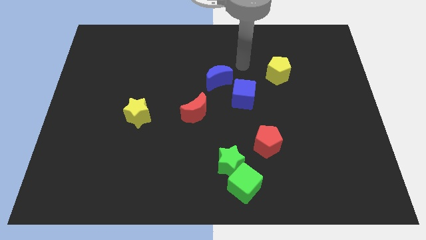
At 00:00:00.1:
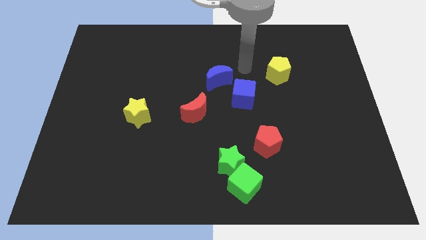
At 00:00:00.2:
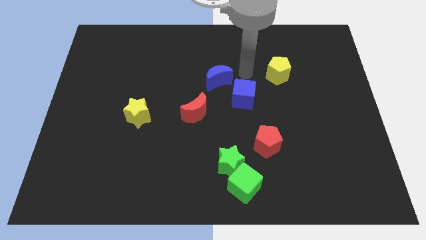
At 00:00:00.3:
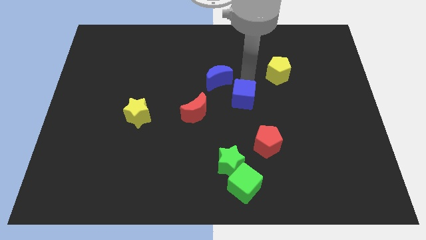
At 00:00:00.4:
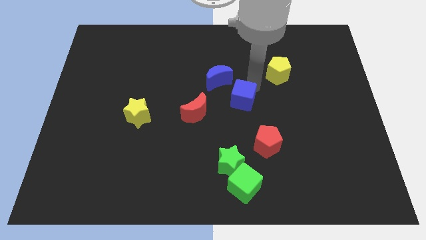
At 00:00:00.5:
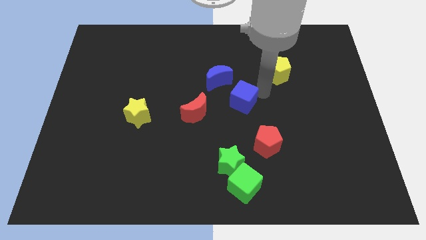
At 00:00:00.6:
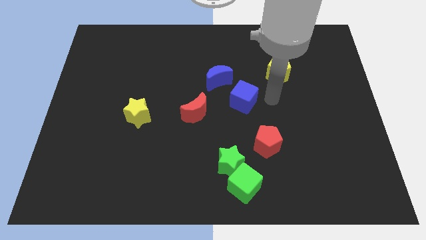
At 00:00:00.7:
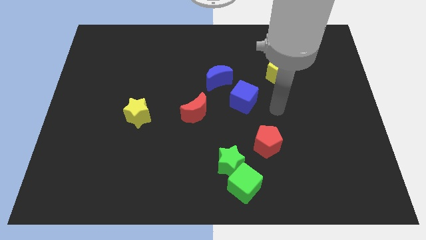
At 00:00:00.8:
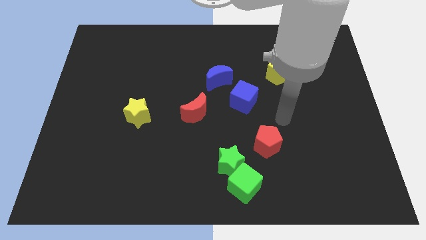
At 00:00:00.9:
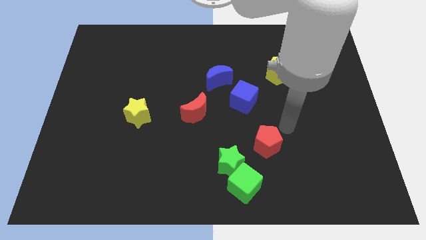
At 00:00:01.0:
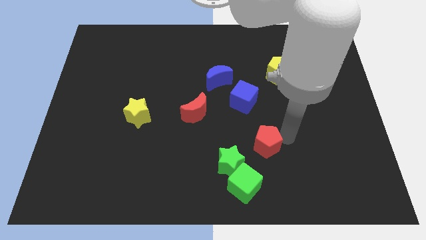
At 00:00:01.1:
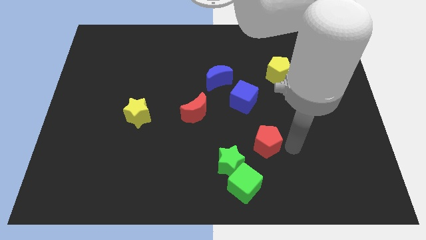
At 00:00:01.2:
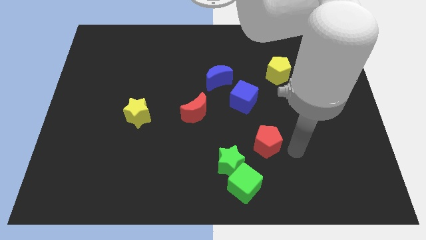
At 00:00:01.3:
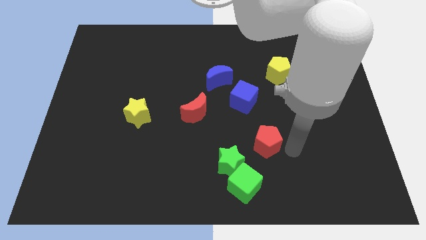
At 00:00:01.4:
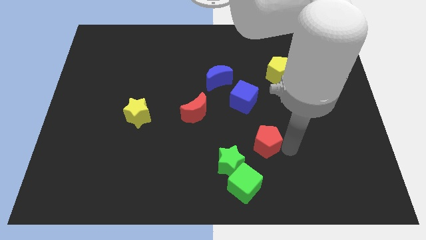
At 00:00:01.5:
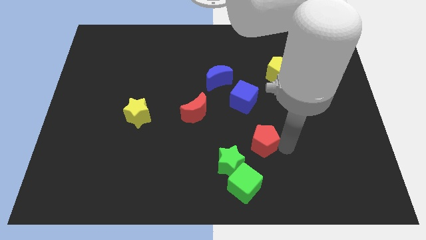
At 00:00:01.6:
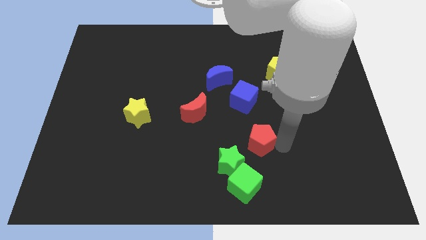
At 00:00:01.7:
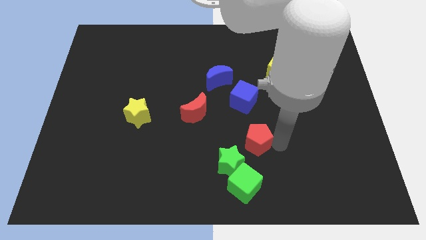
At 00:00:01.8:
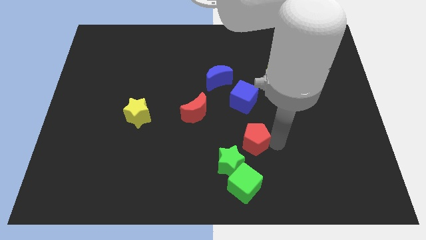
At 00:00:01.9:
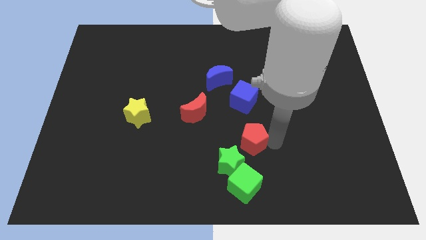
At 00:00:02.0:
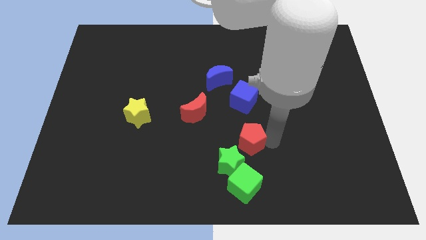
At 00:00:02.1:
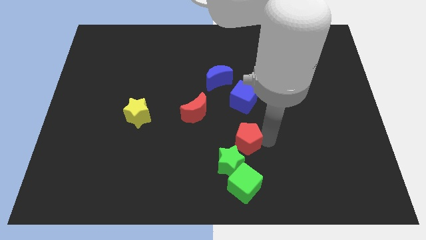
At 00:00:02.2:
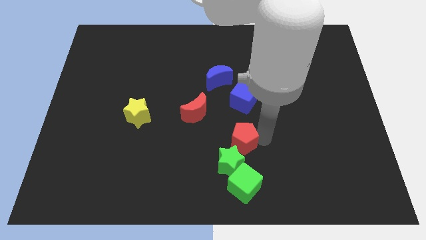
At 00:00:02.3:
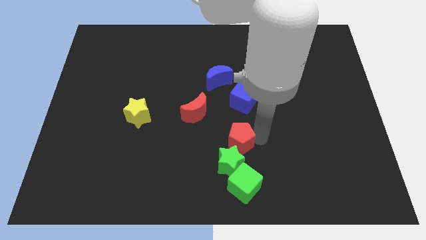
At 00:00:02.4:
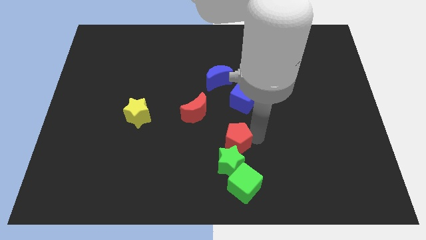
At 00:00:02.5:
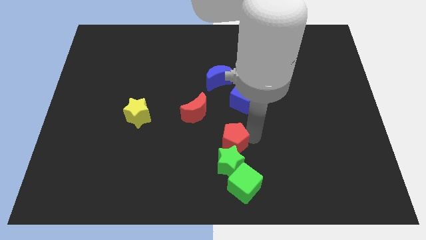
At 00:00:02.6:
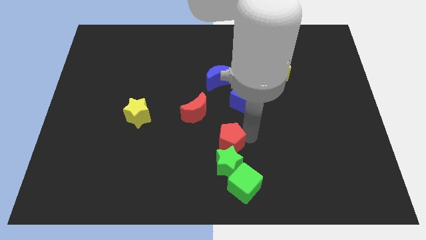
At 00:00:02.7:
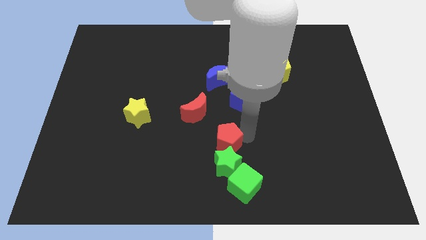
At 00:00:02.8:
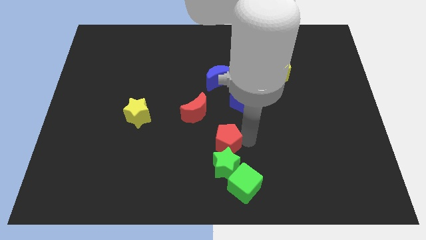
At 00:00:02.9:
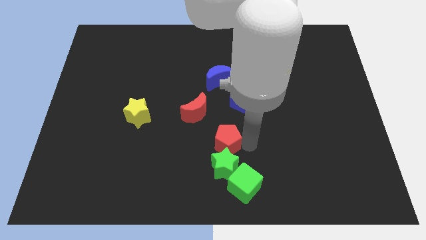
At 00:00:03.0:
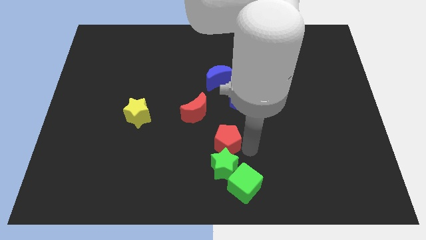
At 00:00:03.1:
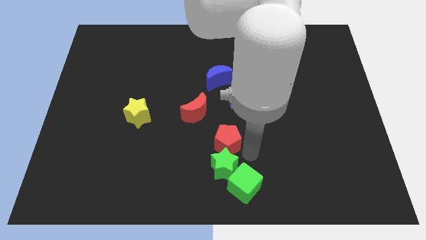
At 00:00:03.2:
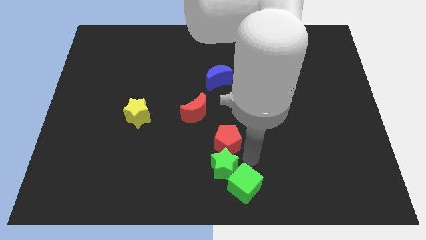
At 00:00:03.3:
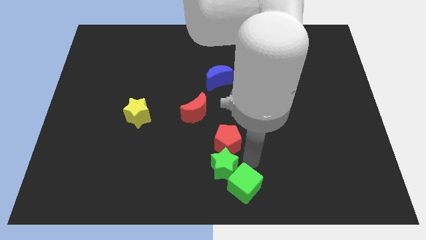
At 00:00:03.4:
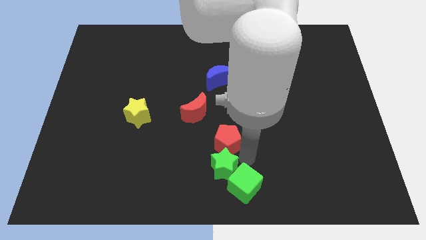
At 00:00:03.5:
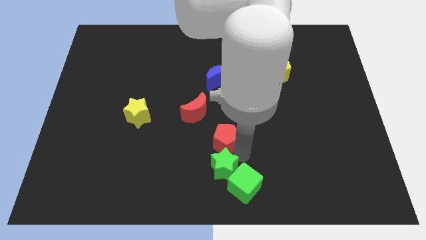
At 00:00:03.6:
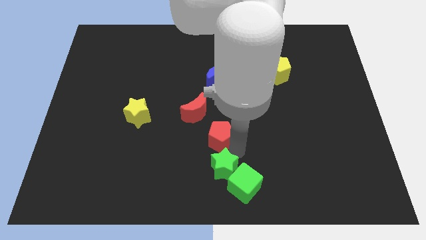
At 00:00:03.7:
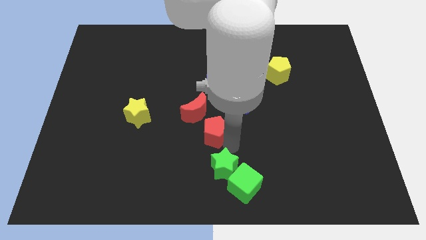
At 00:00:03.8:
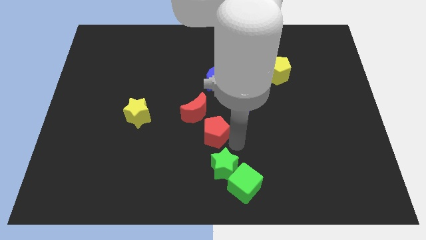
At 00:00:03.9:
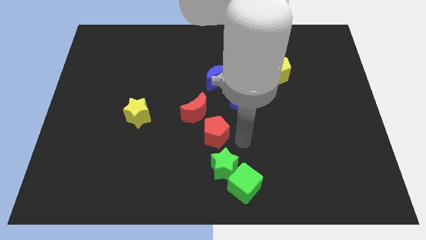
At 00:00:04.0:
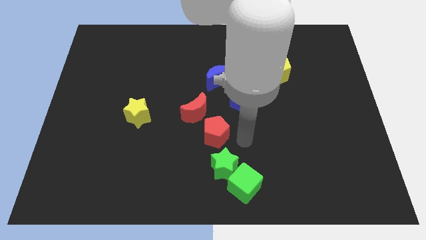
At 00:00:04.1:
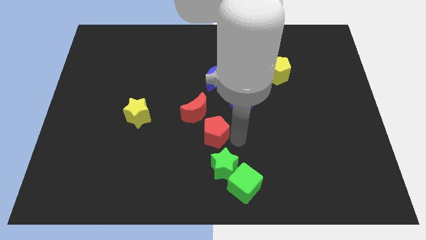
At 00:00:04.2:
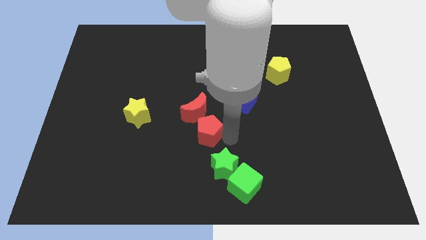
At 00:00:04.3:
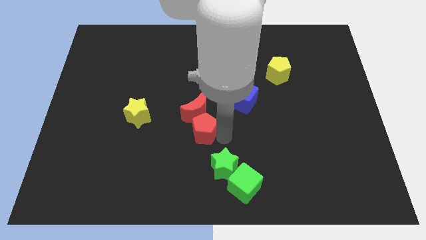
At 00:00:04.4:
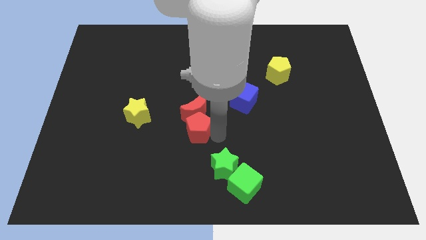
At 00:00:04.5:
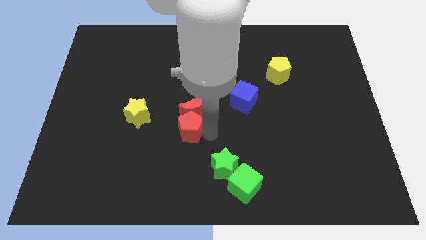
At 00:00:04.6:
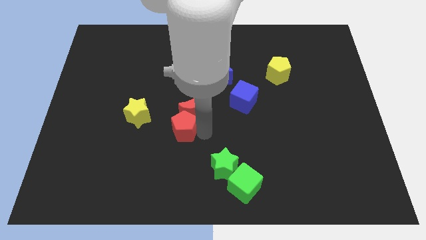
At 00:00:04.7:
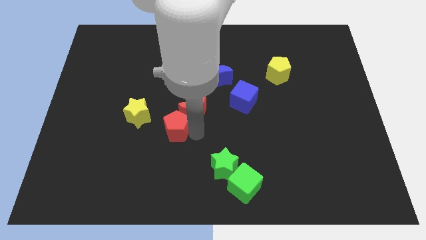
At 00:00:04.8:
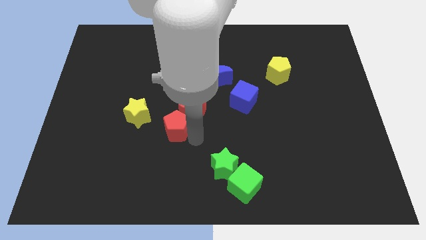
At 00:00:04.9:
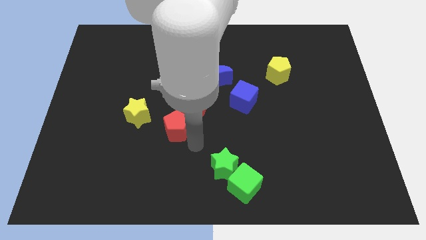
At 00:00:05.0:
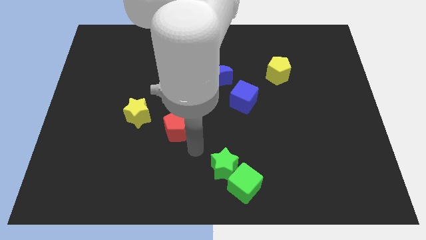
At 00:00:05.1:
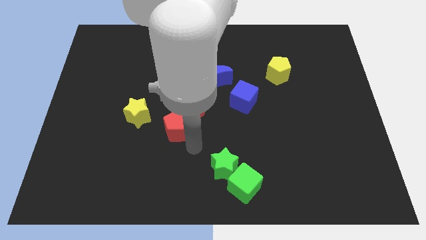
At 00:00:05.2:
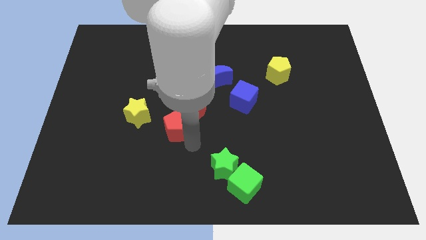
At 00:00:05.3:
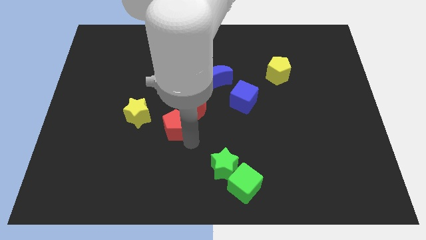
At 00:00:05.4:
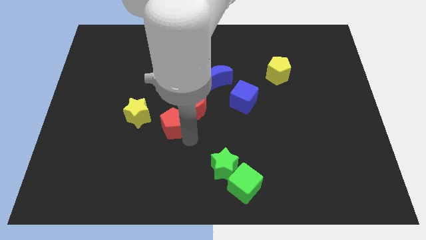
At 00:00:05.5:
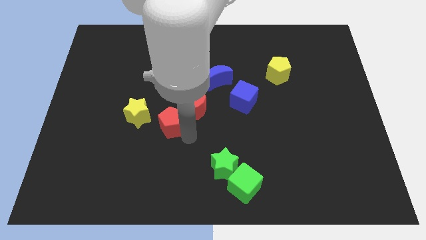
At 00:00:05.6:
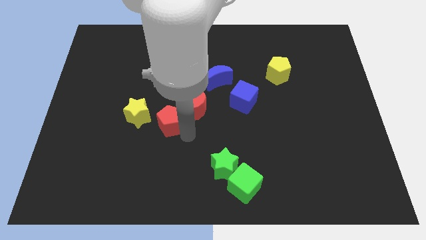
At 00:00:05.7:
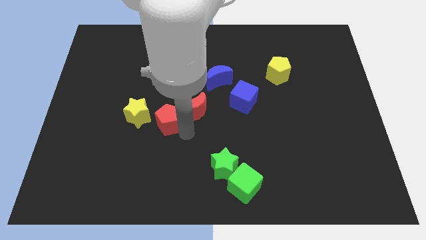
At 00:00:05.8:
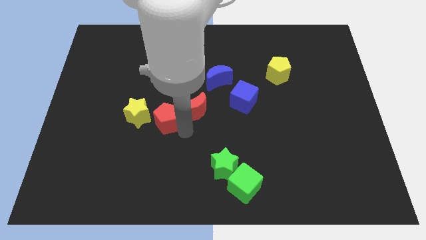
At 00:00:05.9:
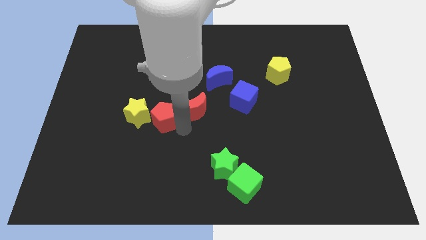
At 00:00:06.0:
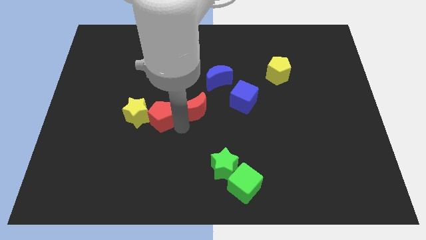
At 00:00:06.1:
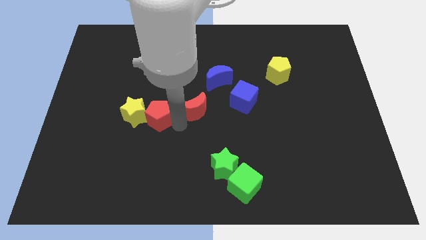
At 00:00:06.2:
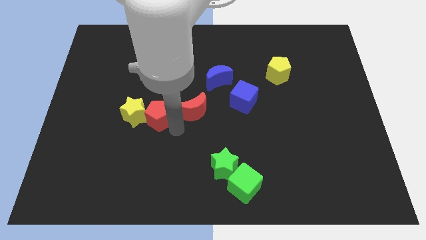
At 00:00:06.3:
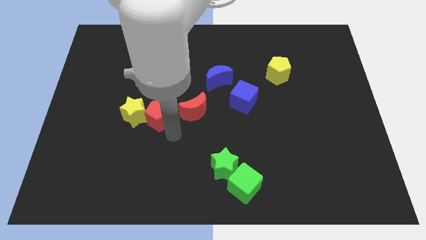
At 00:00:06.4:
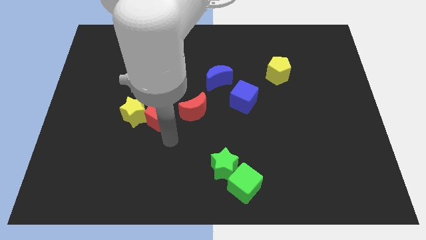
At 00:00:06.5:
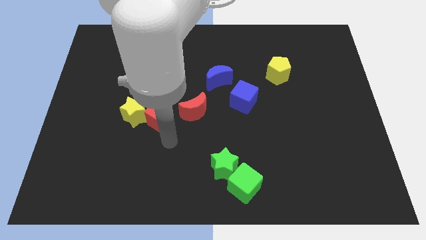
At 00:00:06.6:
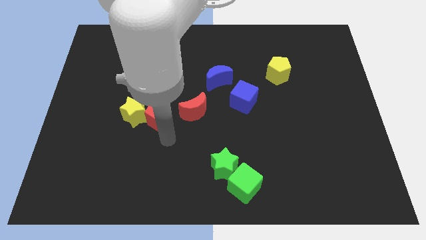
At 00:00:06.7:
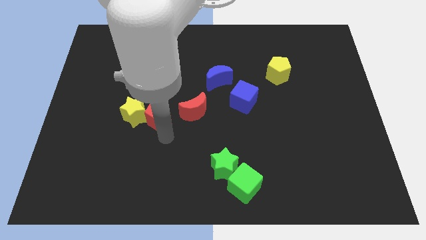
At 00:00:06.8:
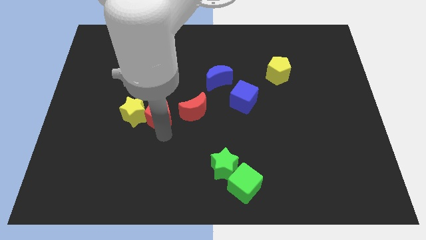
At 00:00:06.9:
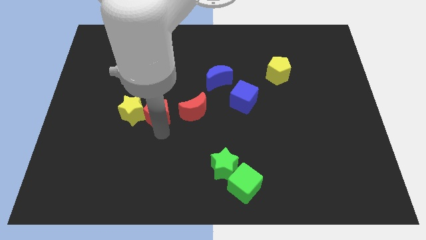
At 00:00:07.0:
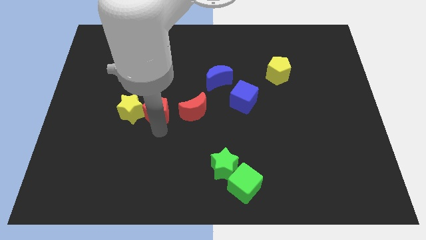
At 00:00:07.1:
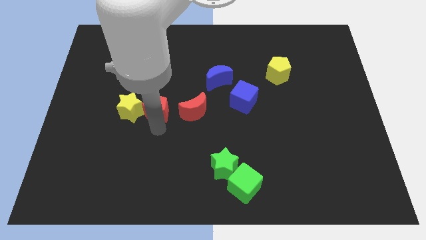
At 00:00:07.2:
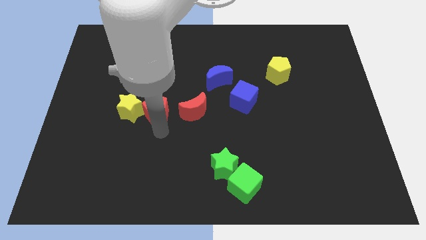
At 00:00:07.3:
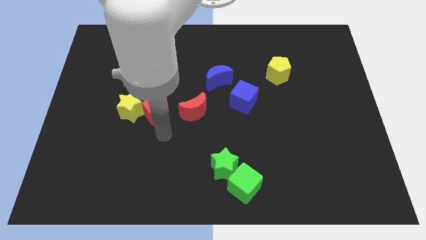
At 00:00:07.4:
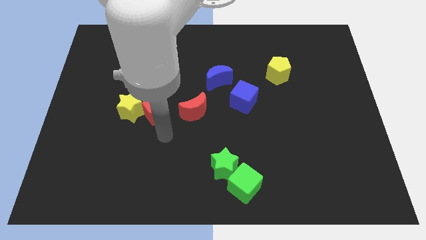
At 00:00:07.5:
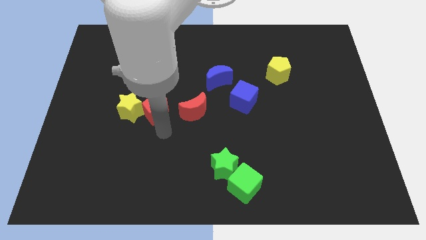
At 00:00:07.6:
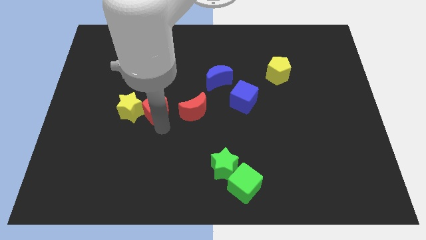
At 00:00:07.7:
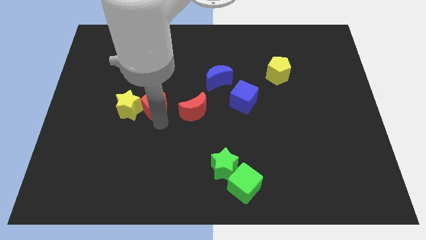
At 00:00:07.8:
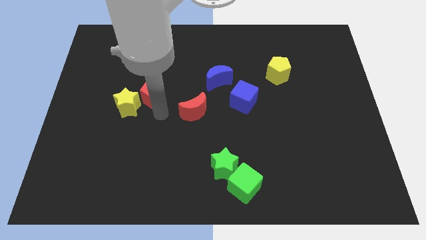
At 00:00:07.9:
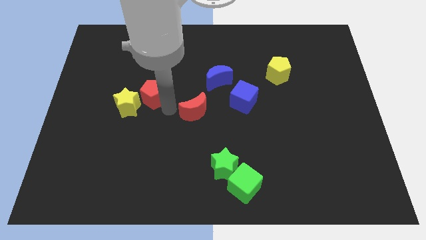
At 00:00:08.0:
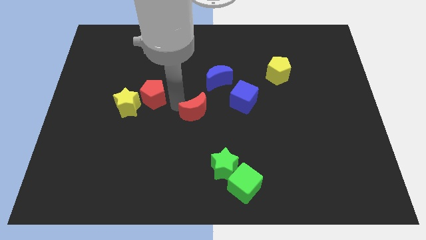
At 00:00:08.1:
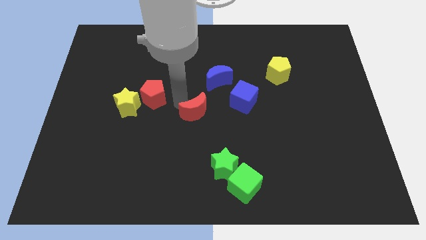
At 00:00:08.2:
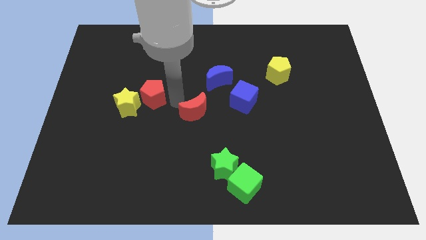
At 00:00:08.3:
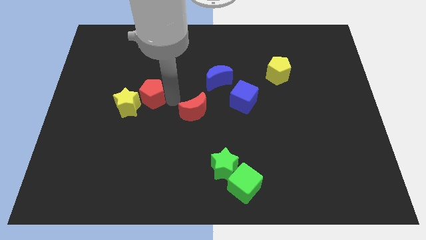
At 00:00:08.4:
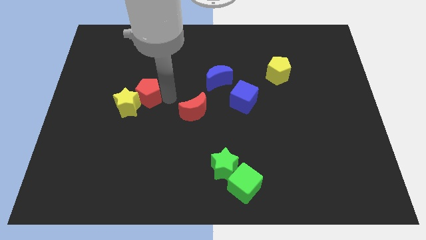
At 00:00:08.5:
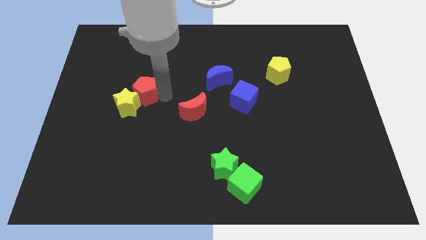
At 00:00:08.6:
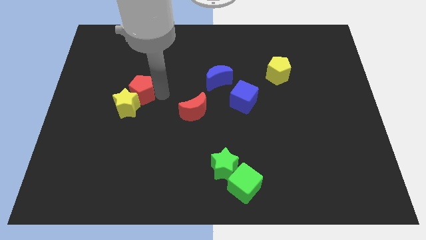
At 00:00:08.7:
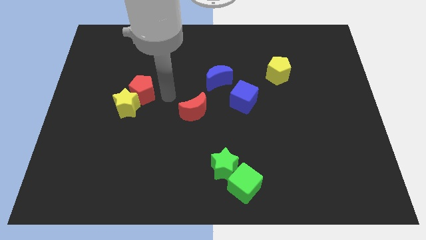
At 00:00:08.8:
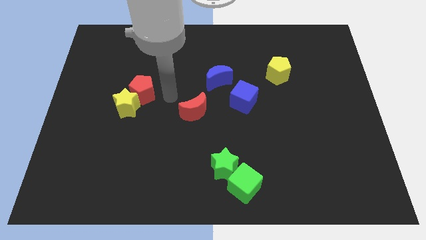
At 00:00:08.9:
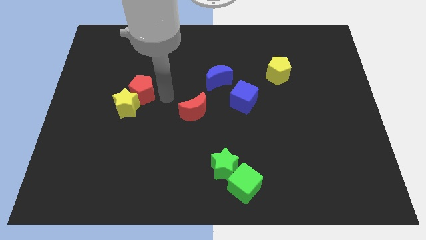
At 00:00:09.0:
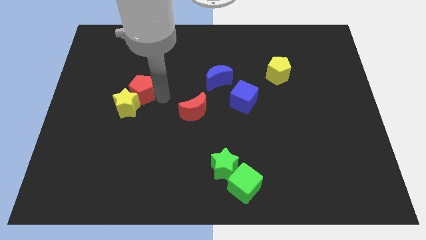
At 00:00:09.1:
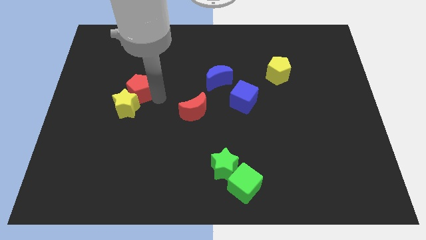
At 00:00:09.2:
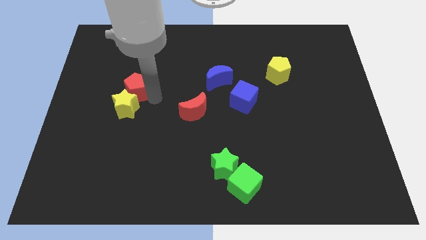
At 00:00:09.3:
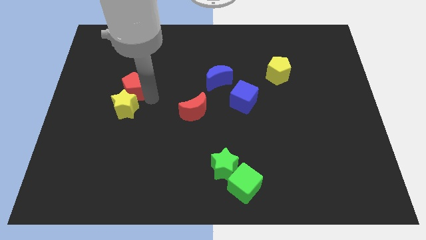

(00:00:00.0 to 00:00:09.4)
put the red pentagon diagonally up and to the left of the yellow star
